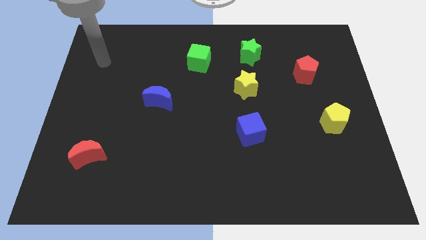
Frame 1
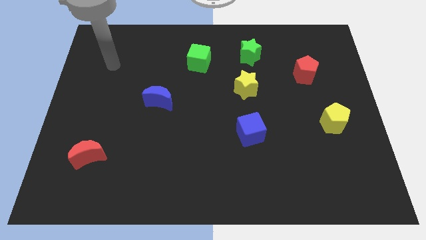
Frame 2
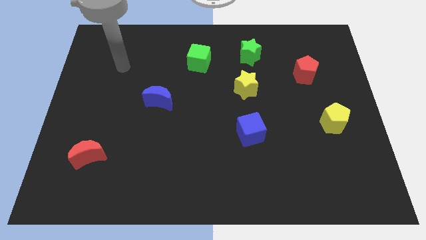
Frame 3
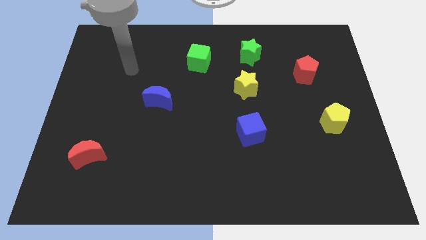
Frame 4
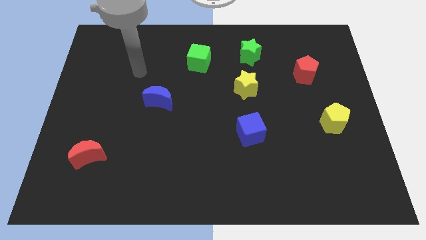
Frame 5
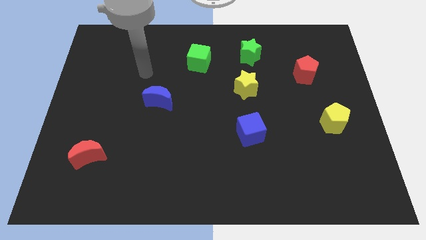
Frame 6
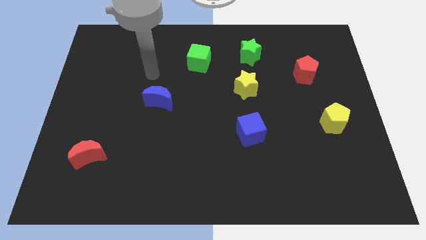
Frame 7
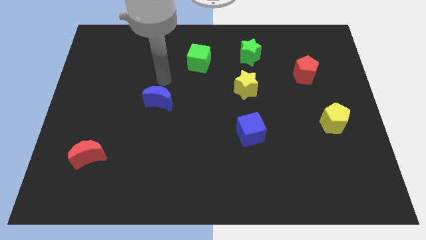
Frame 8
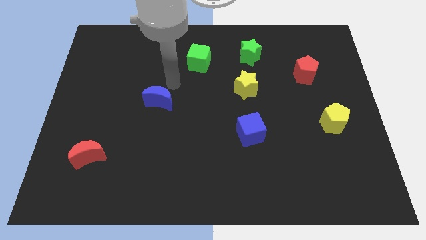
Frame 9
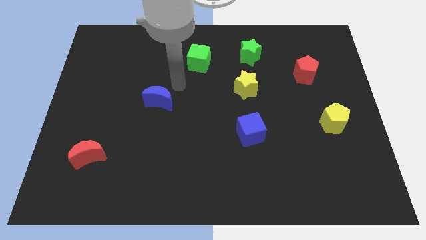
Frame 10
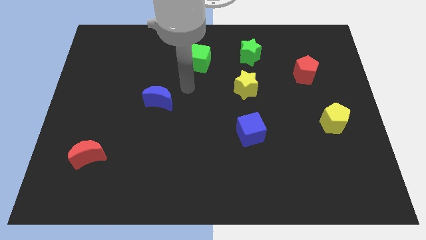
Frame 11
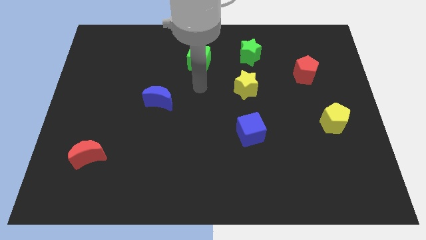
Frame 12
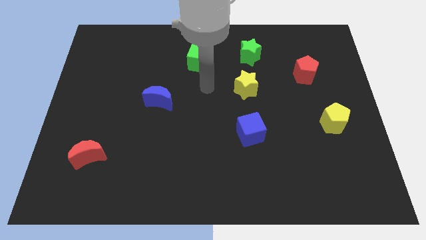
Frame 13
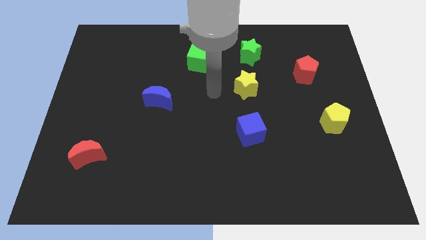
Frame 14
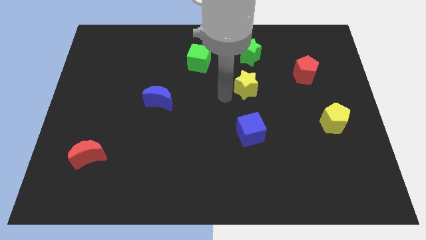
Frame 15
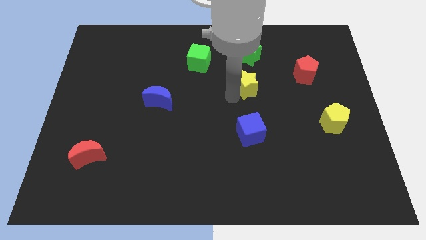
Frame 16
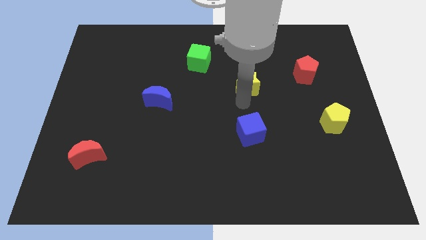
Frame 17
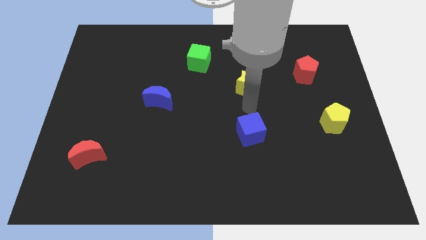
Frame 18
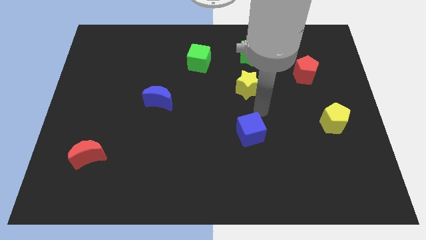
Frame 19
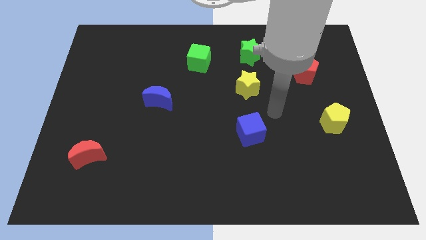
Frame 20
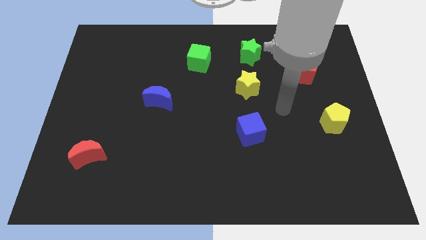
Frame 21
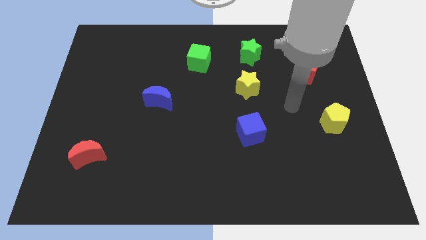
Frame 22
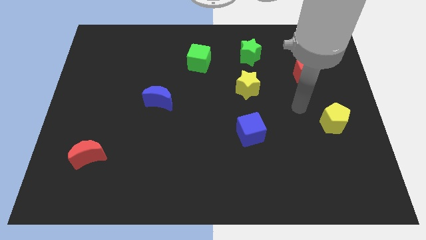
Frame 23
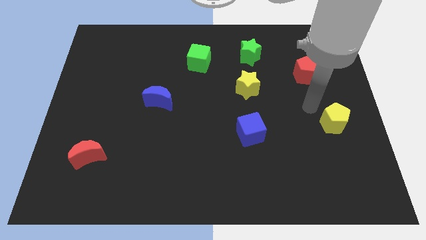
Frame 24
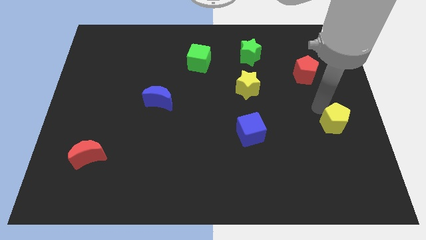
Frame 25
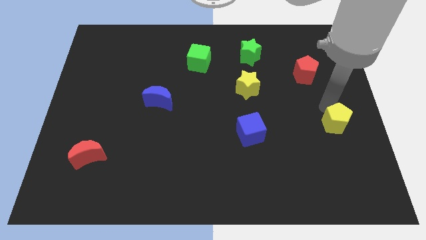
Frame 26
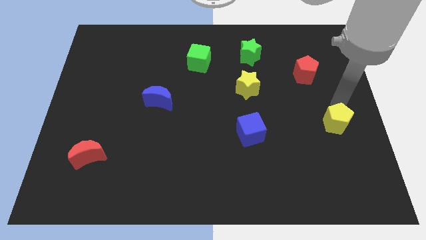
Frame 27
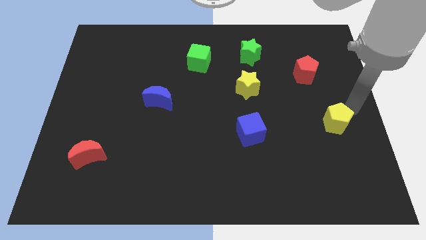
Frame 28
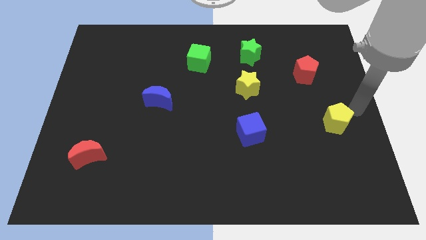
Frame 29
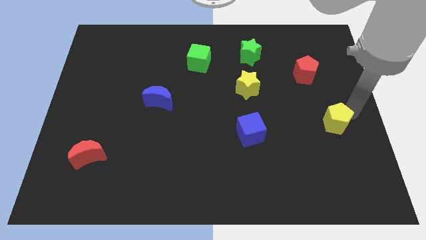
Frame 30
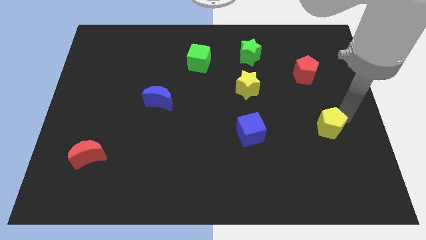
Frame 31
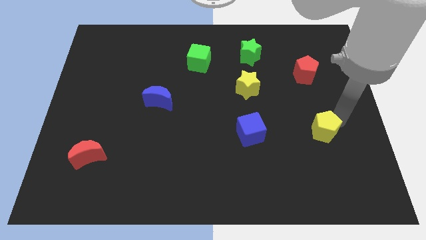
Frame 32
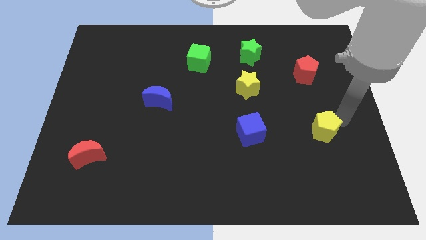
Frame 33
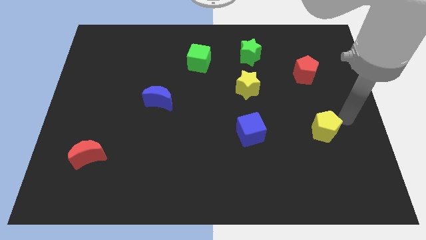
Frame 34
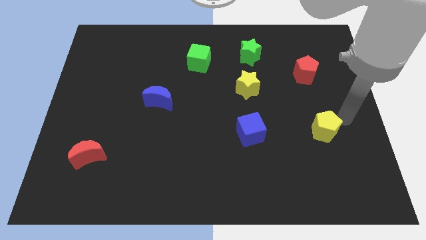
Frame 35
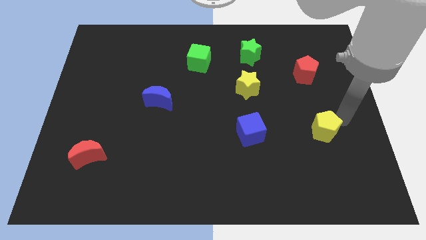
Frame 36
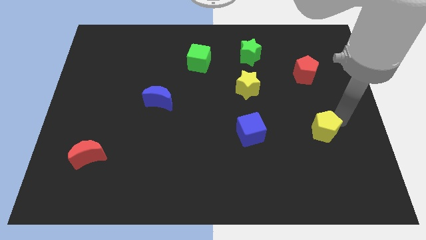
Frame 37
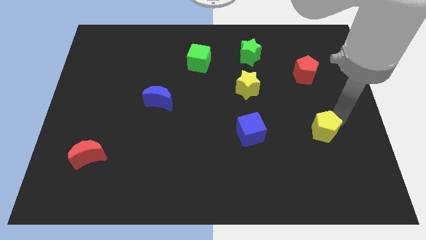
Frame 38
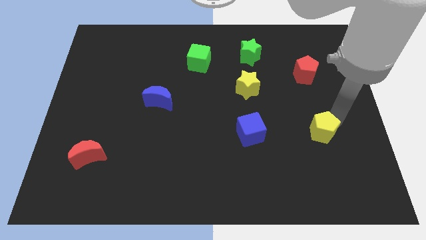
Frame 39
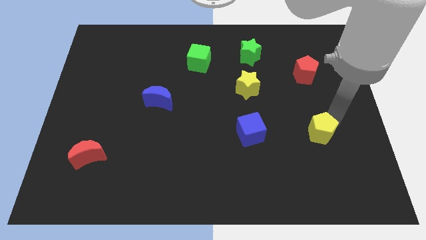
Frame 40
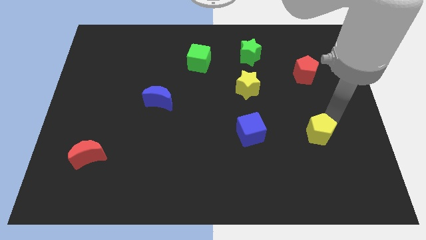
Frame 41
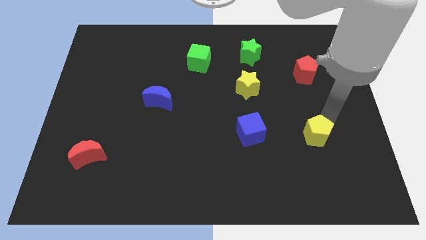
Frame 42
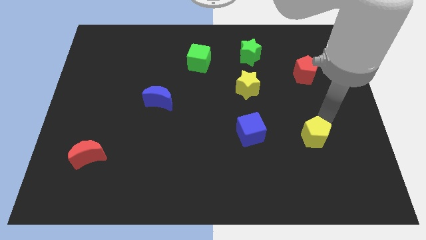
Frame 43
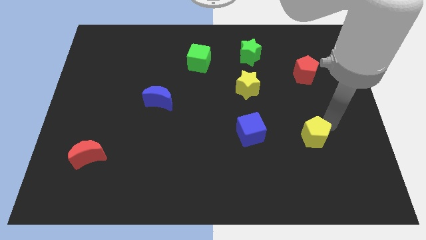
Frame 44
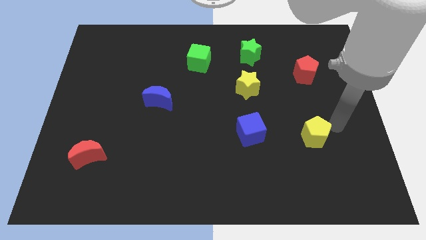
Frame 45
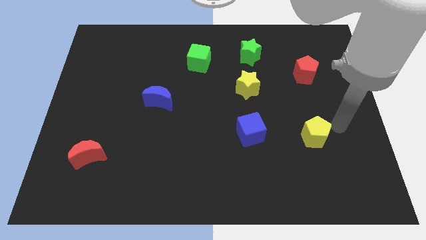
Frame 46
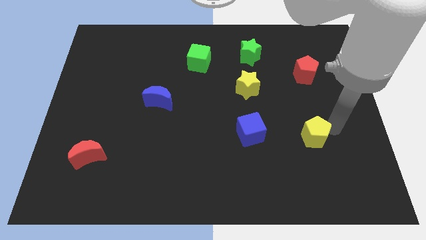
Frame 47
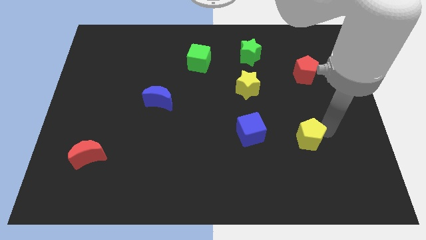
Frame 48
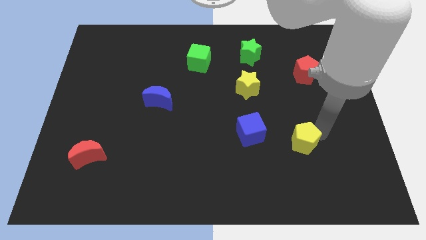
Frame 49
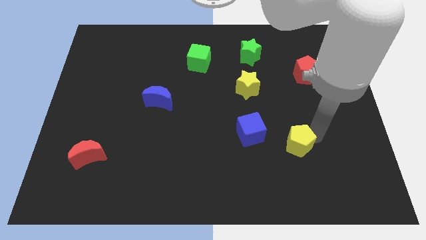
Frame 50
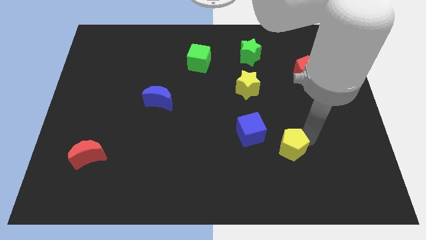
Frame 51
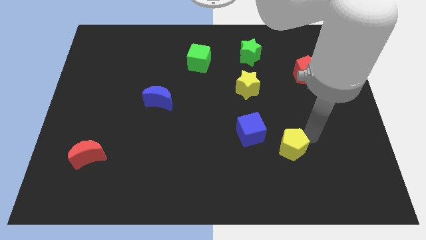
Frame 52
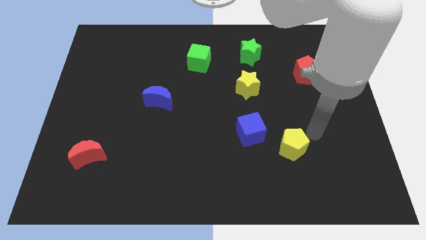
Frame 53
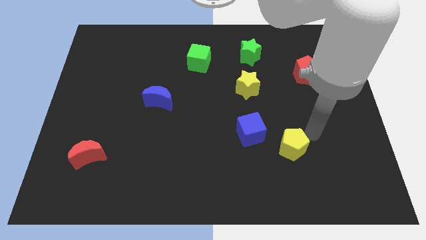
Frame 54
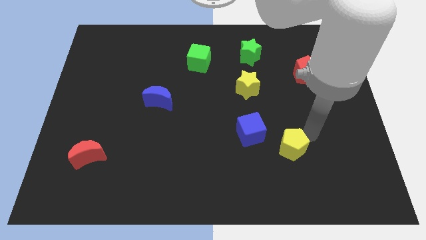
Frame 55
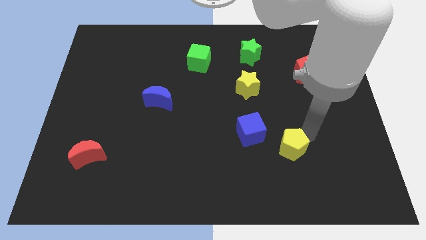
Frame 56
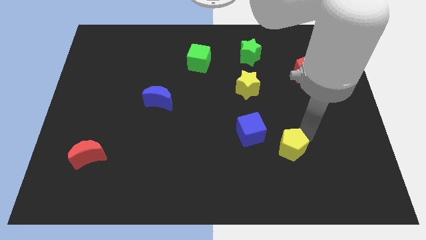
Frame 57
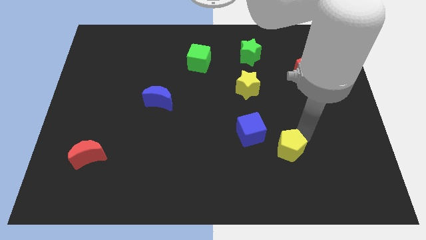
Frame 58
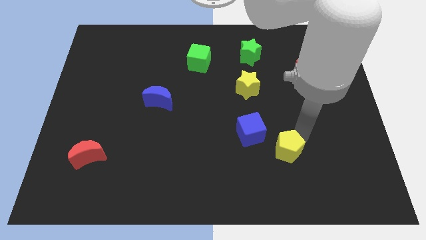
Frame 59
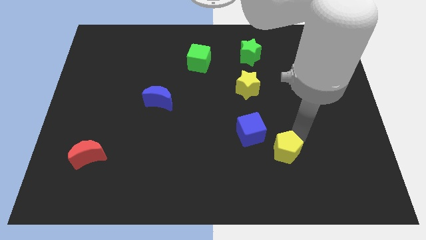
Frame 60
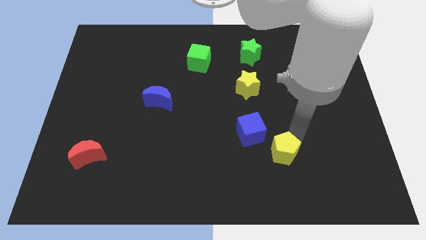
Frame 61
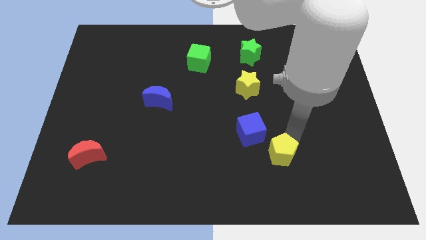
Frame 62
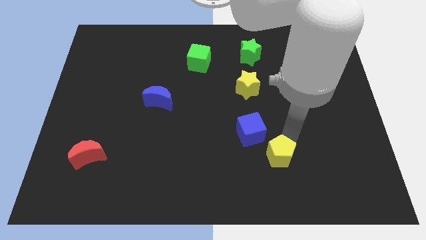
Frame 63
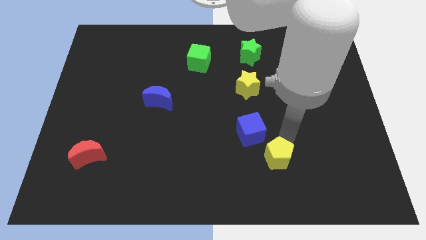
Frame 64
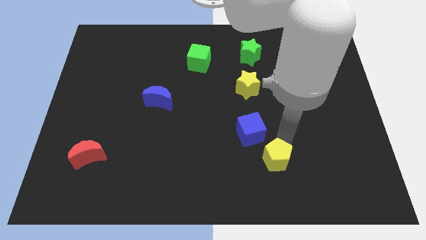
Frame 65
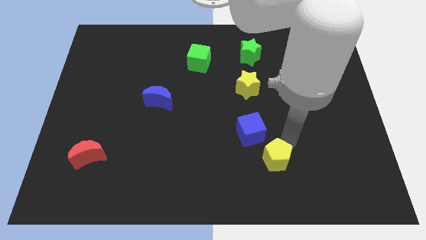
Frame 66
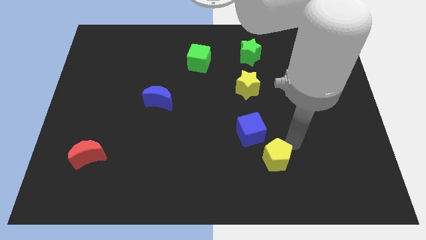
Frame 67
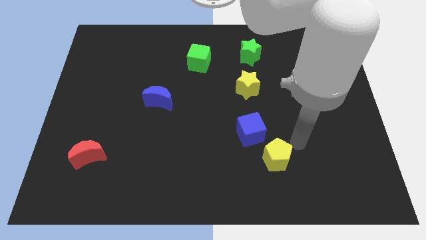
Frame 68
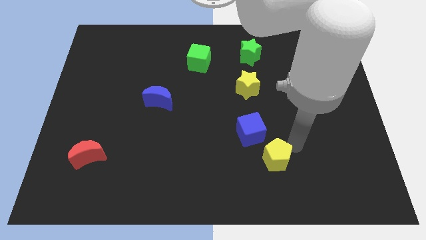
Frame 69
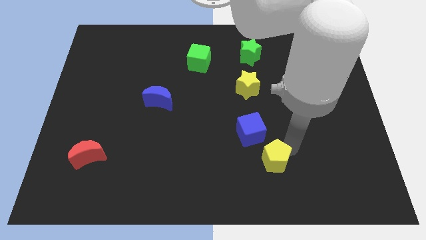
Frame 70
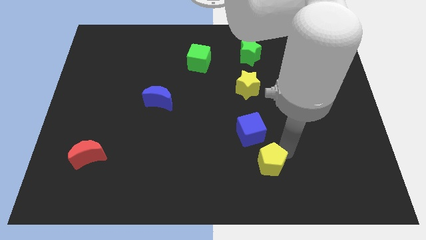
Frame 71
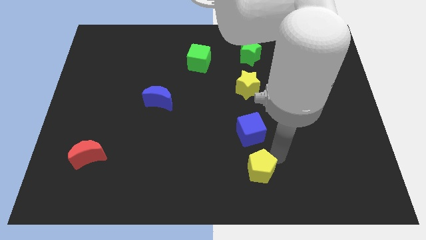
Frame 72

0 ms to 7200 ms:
put the yellow pentagon to the bottom
